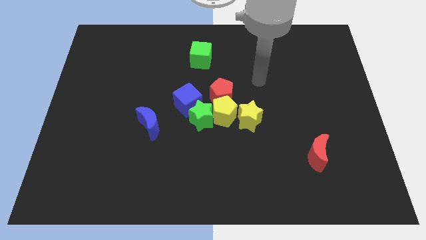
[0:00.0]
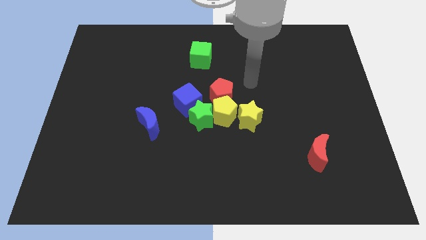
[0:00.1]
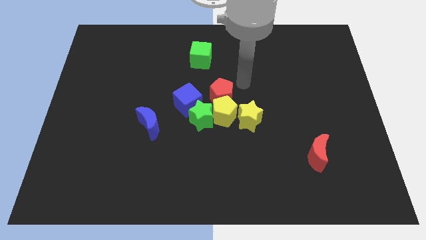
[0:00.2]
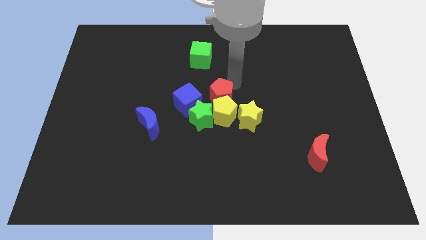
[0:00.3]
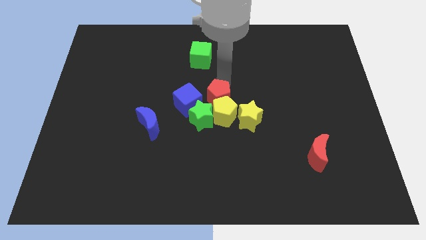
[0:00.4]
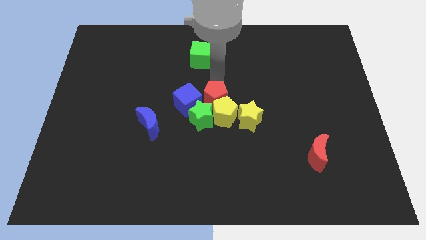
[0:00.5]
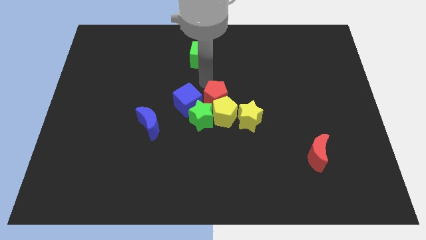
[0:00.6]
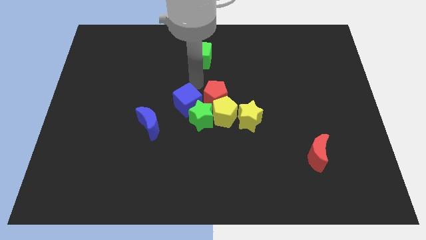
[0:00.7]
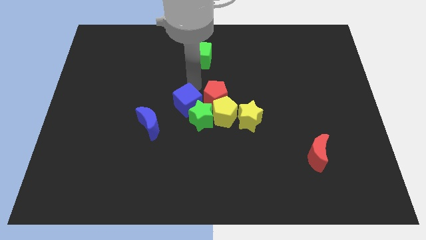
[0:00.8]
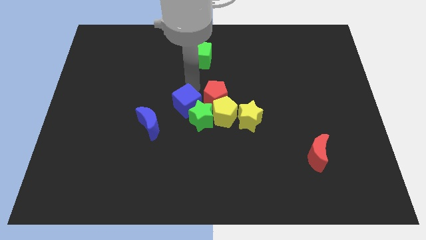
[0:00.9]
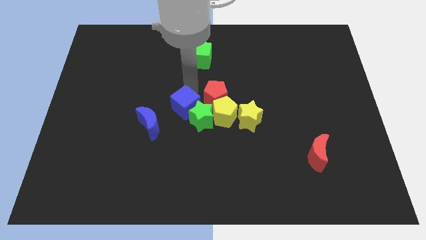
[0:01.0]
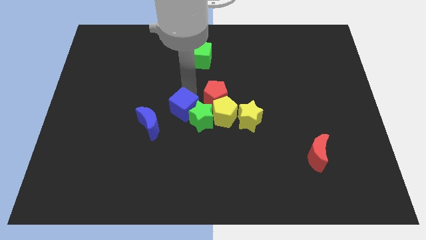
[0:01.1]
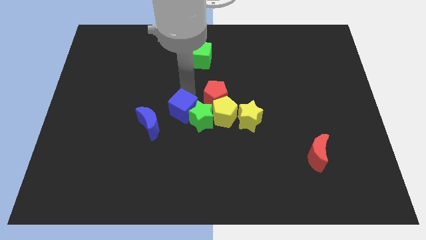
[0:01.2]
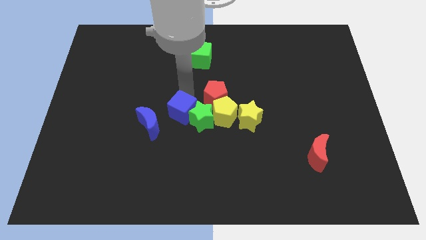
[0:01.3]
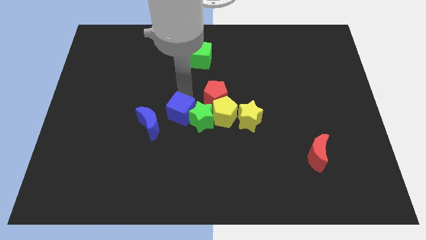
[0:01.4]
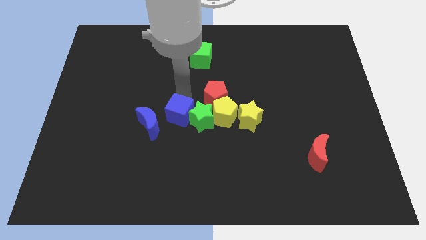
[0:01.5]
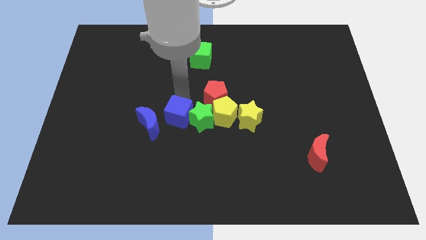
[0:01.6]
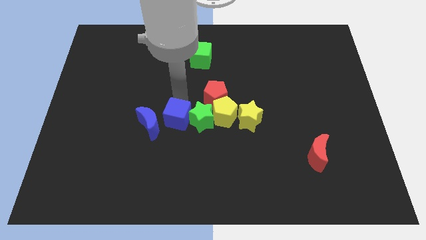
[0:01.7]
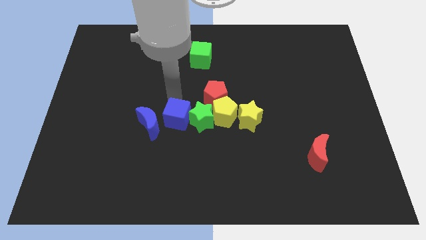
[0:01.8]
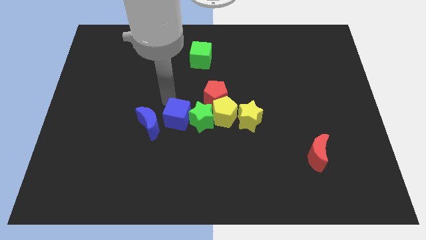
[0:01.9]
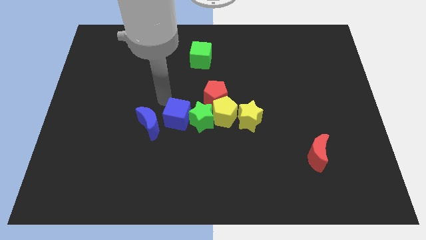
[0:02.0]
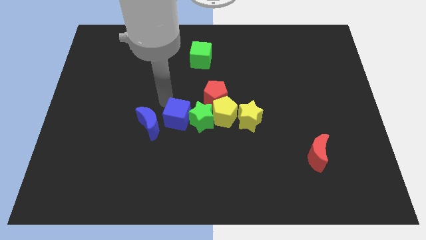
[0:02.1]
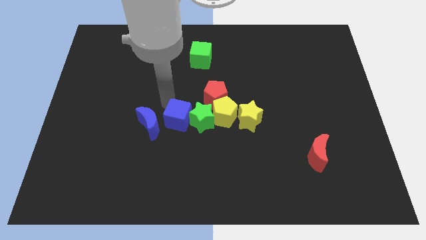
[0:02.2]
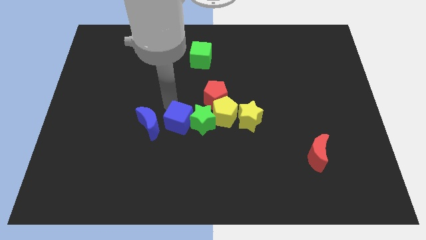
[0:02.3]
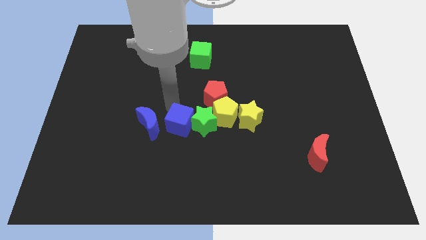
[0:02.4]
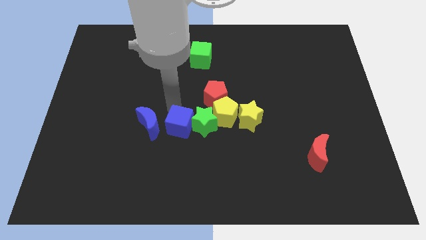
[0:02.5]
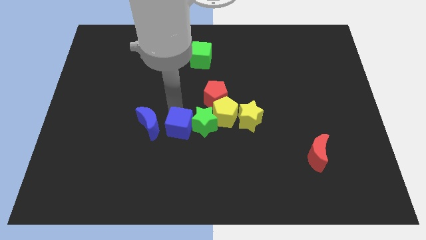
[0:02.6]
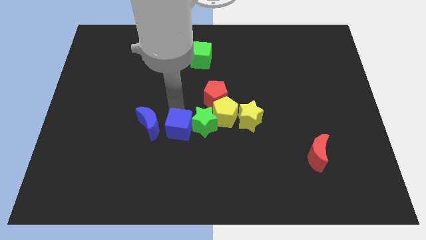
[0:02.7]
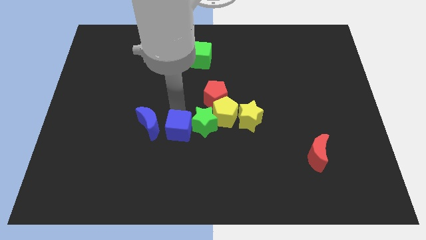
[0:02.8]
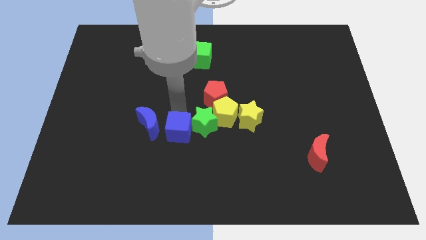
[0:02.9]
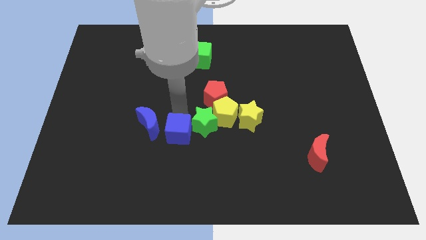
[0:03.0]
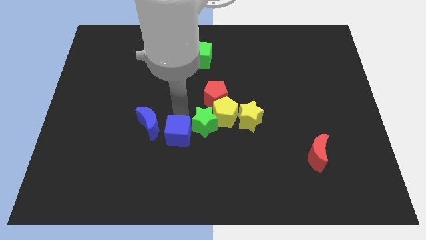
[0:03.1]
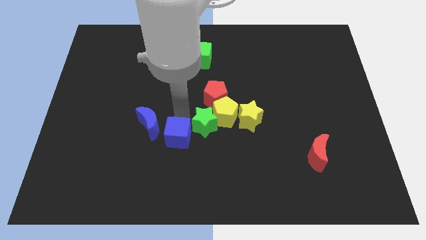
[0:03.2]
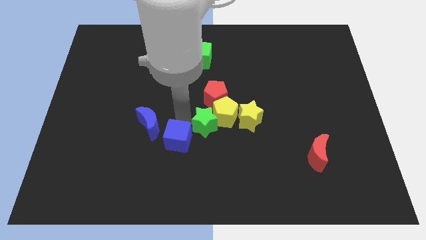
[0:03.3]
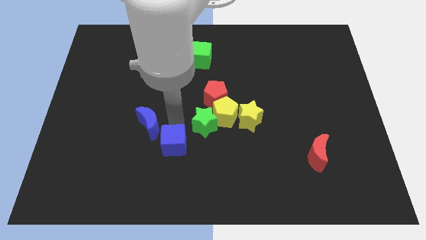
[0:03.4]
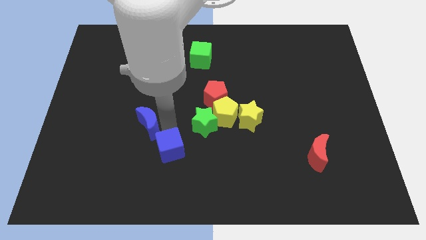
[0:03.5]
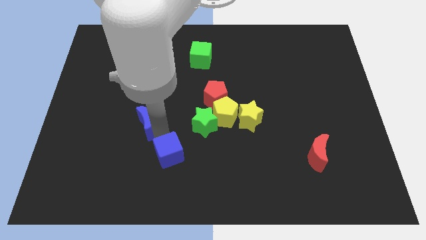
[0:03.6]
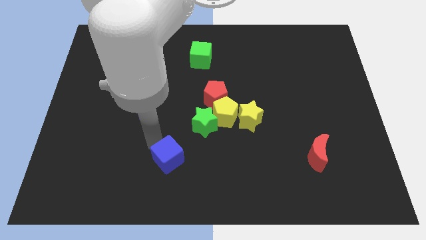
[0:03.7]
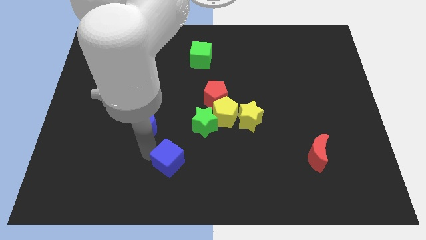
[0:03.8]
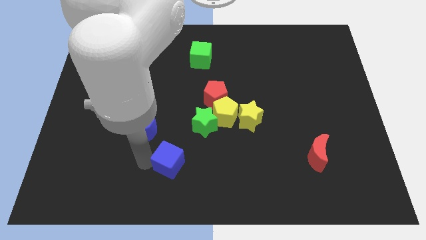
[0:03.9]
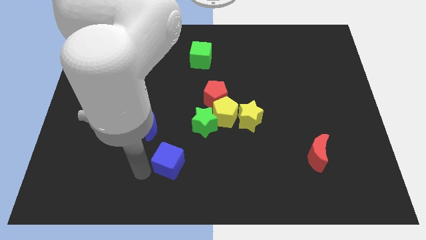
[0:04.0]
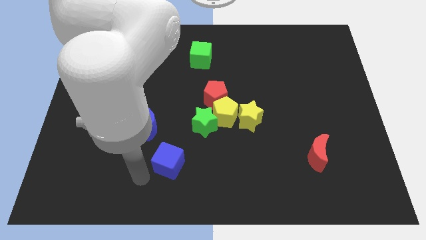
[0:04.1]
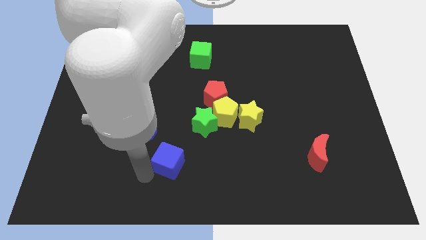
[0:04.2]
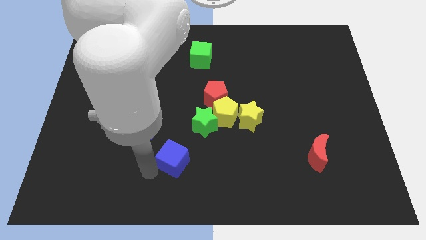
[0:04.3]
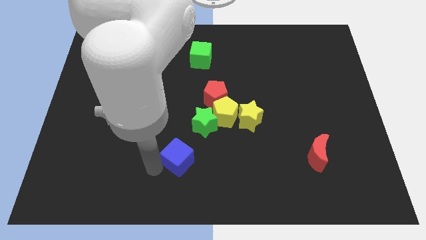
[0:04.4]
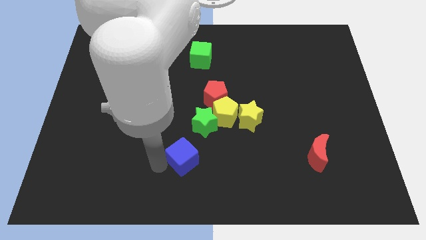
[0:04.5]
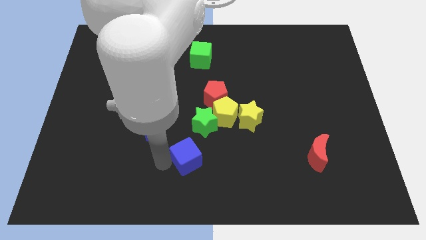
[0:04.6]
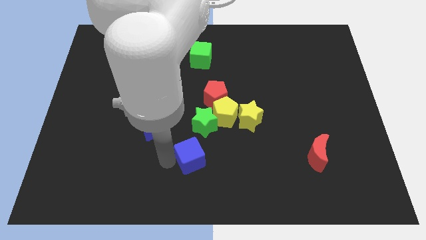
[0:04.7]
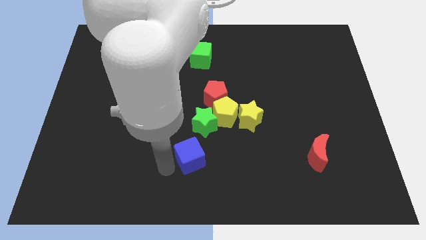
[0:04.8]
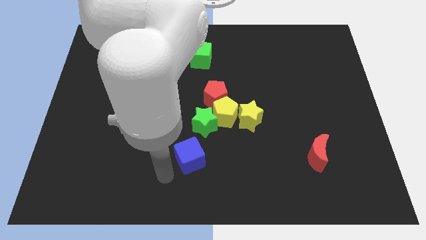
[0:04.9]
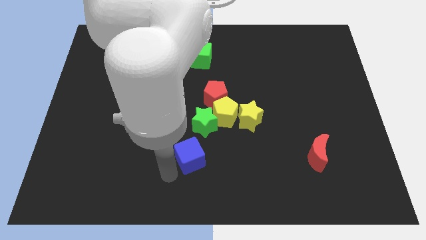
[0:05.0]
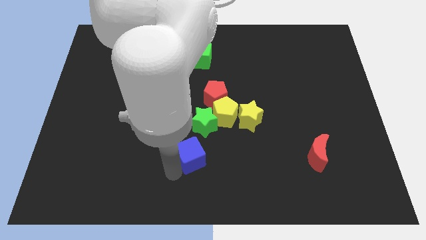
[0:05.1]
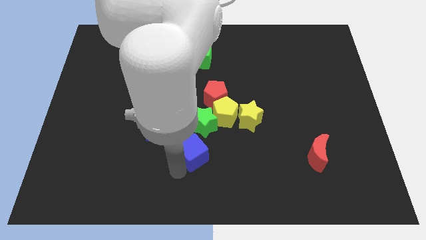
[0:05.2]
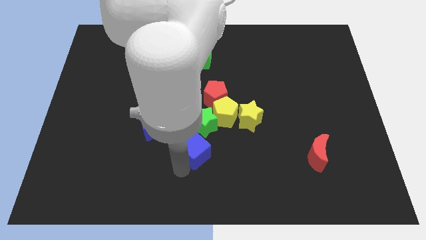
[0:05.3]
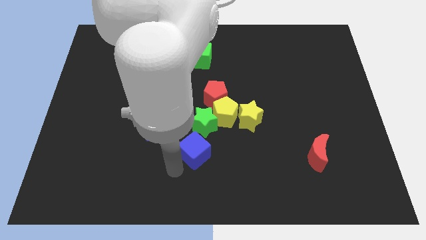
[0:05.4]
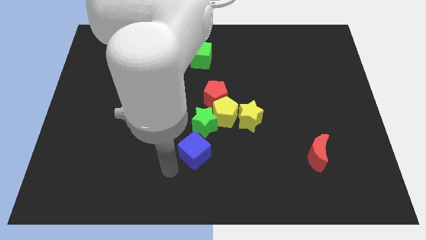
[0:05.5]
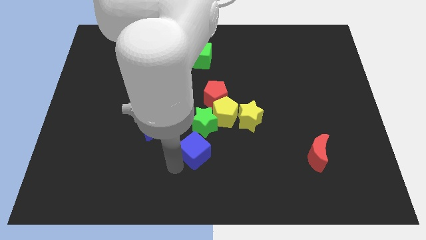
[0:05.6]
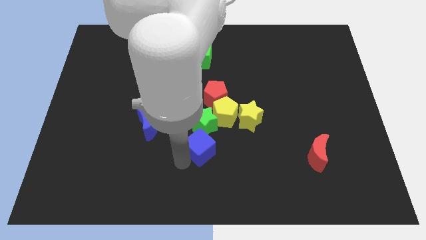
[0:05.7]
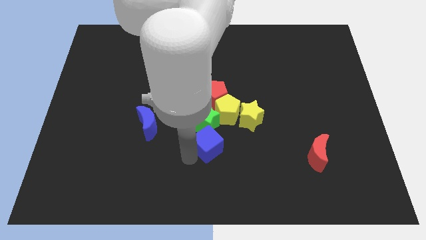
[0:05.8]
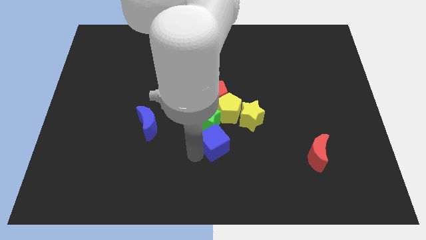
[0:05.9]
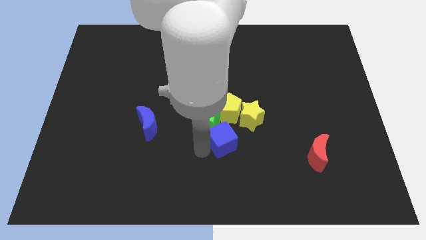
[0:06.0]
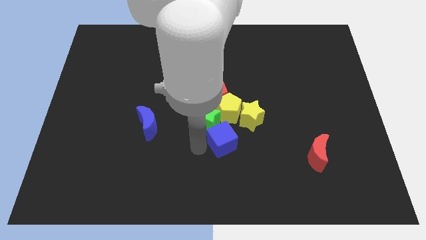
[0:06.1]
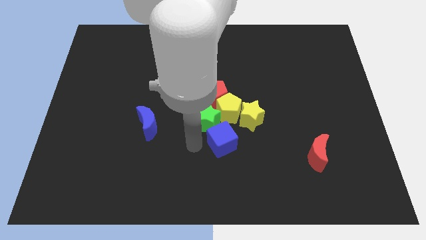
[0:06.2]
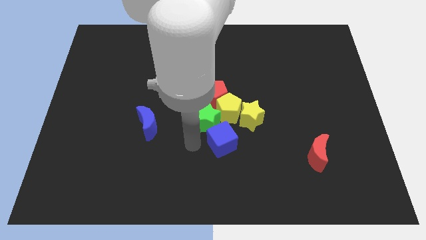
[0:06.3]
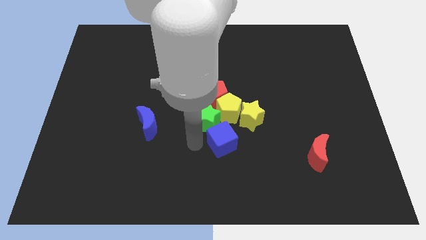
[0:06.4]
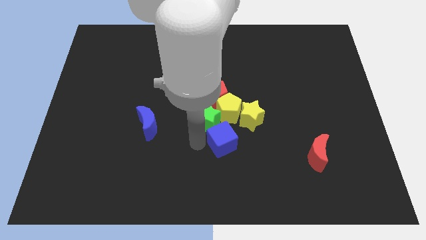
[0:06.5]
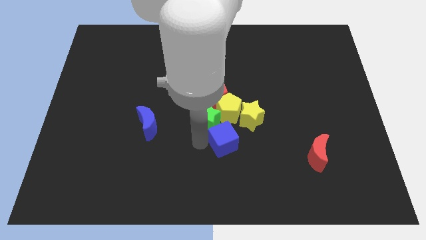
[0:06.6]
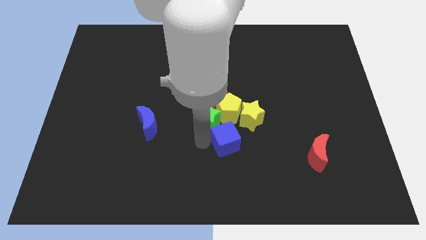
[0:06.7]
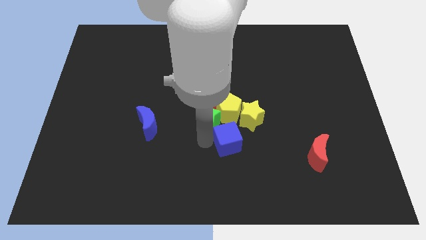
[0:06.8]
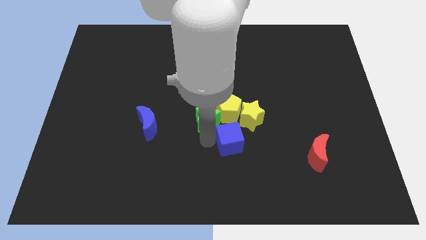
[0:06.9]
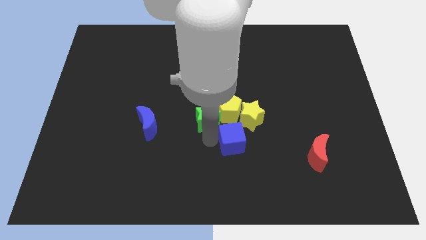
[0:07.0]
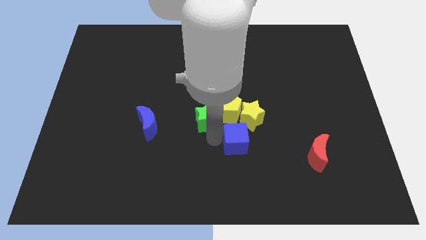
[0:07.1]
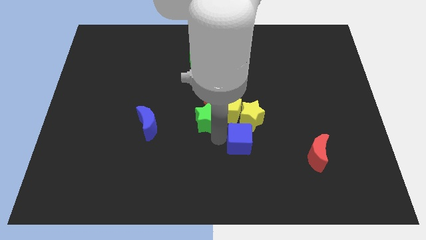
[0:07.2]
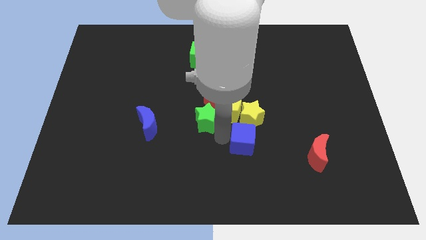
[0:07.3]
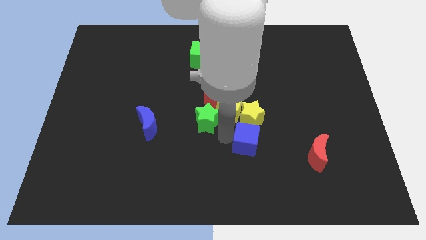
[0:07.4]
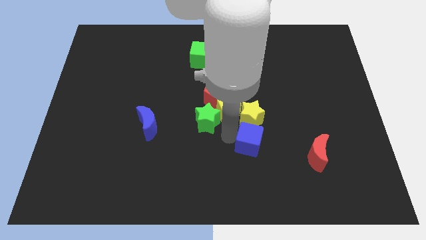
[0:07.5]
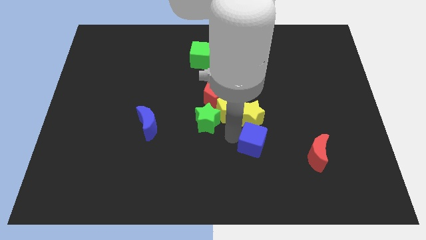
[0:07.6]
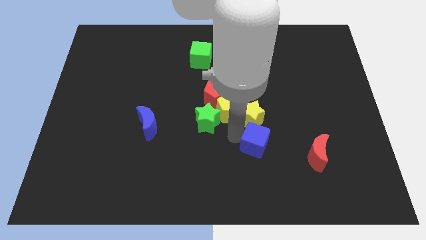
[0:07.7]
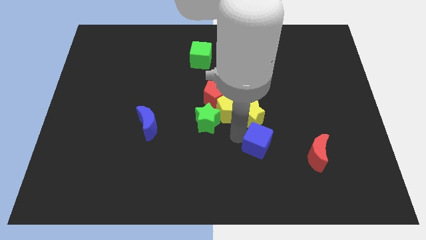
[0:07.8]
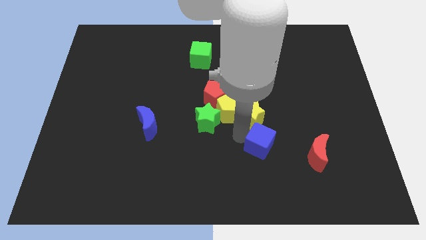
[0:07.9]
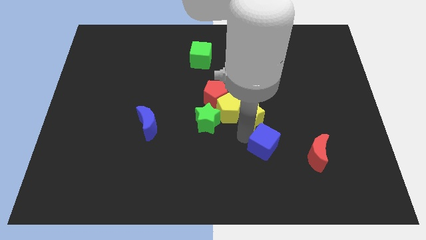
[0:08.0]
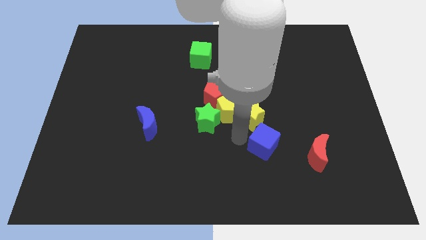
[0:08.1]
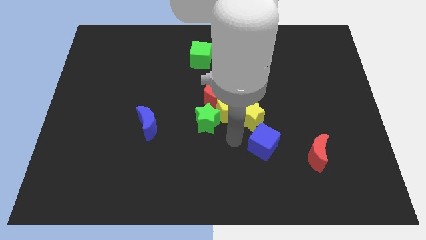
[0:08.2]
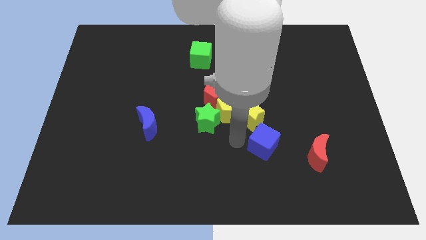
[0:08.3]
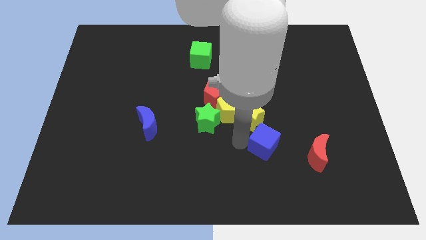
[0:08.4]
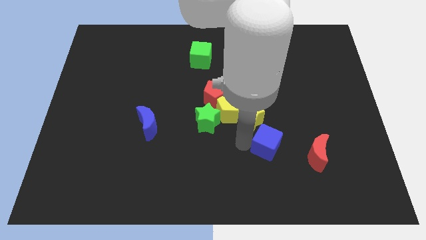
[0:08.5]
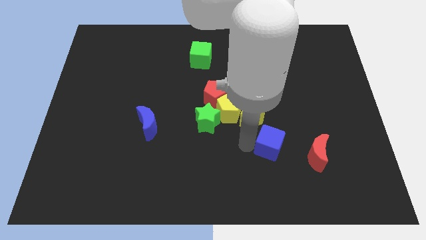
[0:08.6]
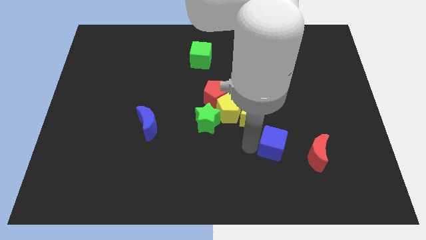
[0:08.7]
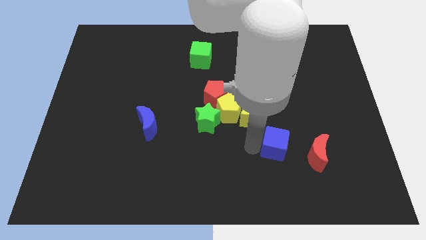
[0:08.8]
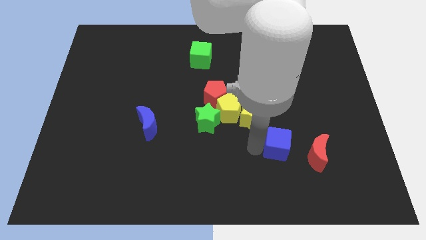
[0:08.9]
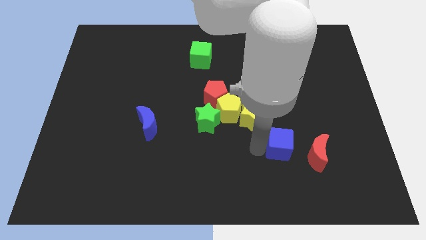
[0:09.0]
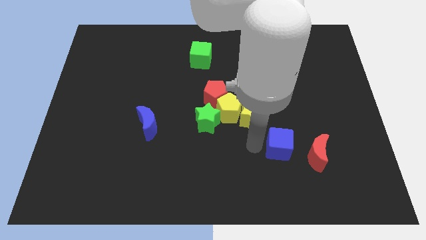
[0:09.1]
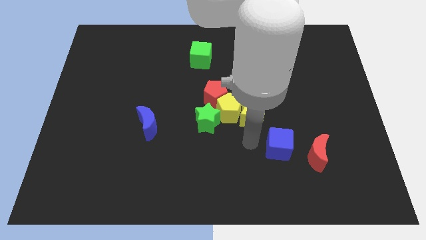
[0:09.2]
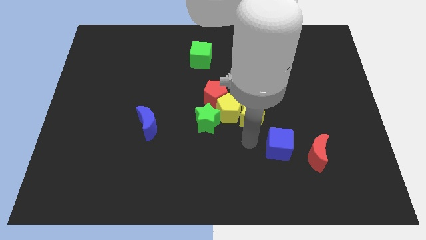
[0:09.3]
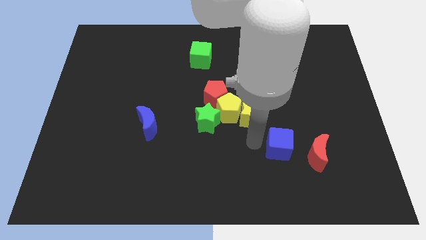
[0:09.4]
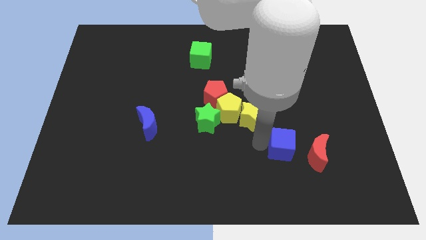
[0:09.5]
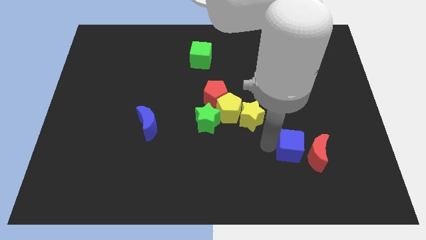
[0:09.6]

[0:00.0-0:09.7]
put the blue cube next to the red moon
